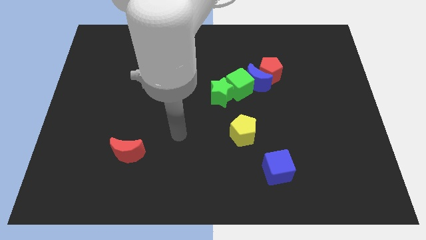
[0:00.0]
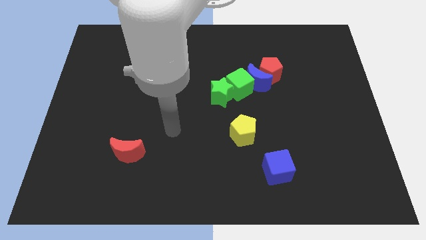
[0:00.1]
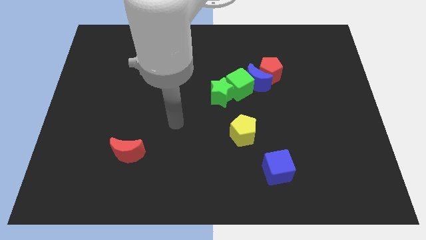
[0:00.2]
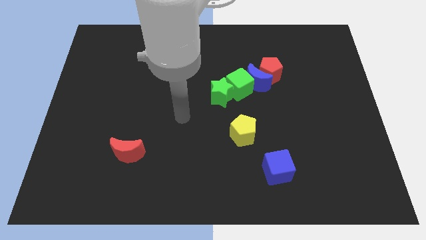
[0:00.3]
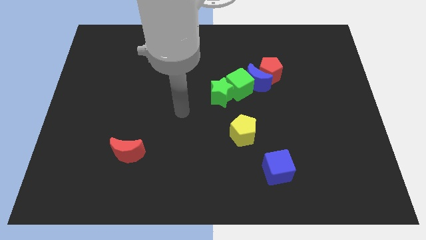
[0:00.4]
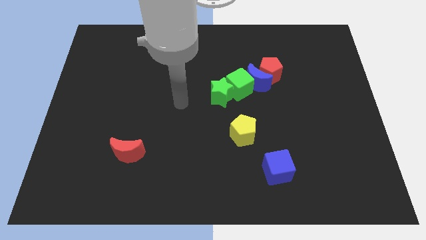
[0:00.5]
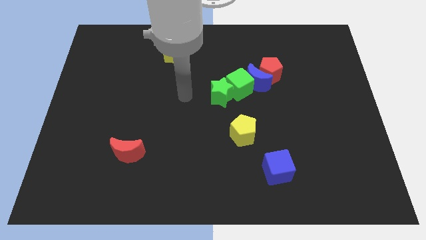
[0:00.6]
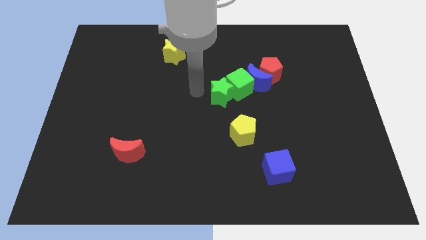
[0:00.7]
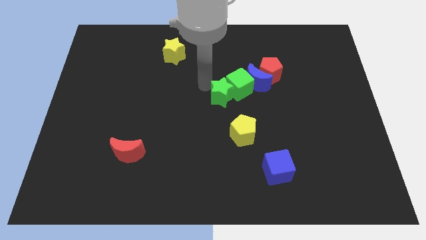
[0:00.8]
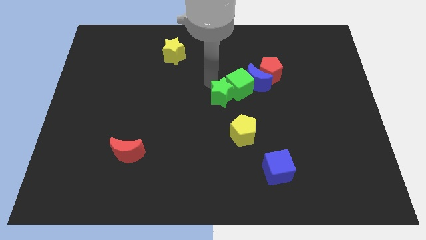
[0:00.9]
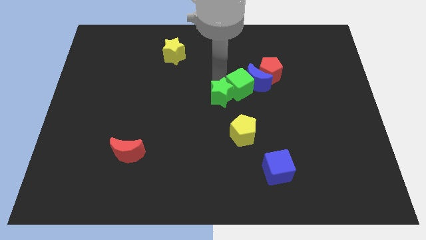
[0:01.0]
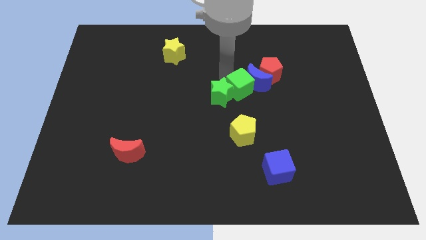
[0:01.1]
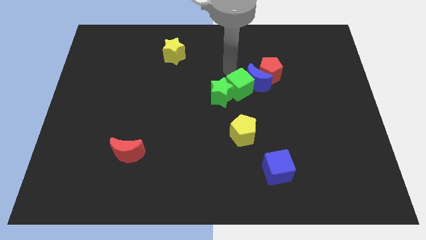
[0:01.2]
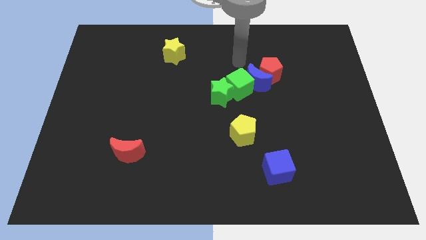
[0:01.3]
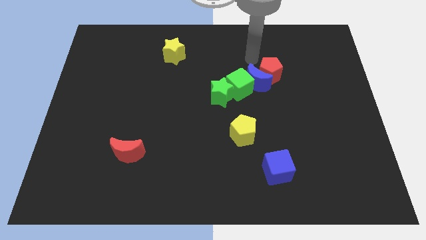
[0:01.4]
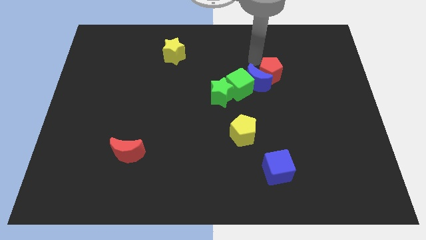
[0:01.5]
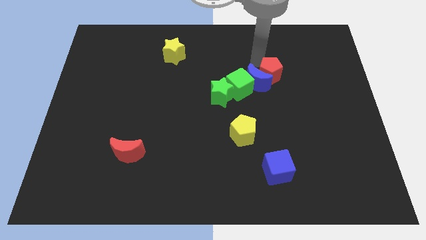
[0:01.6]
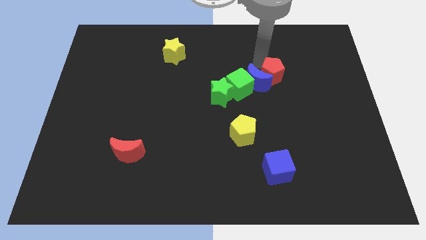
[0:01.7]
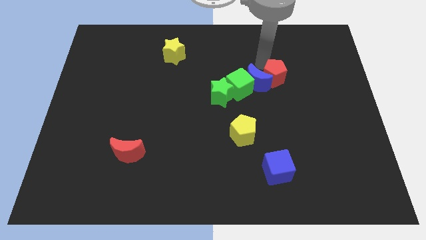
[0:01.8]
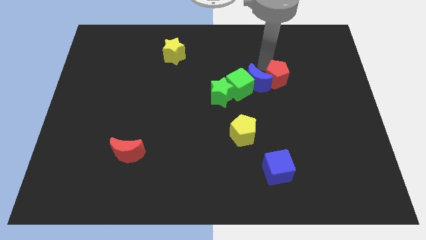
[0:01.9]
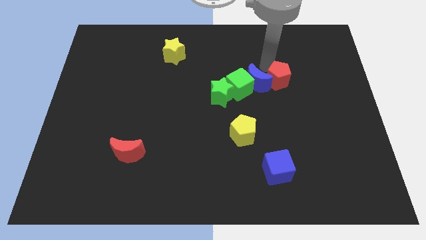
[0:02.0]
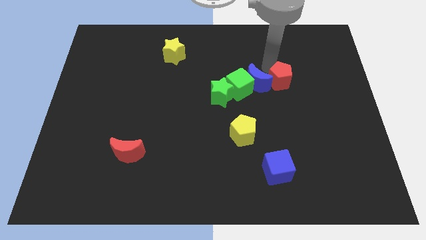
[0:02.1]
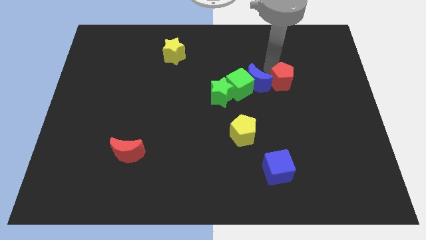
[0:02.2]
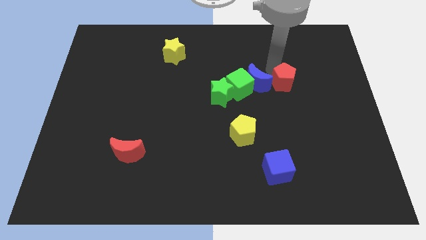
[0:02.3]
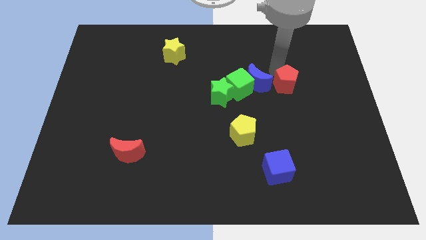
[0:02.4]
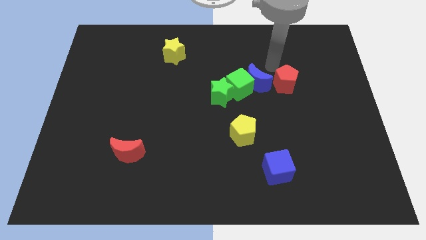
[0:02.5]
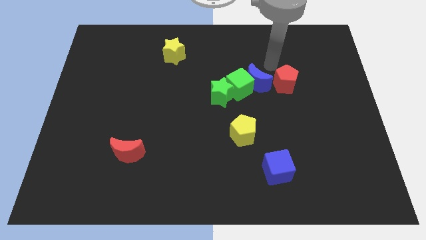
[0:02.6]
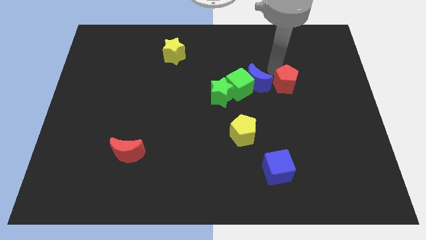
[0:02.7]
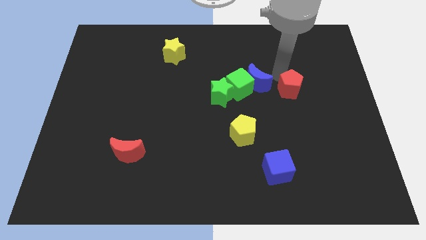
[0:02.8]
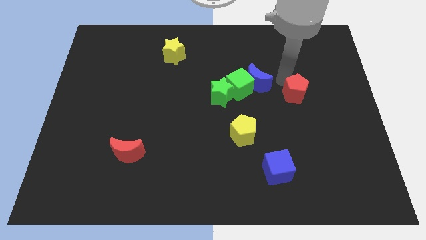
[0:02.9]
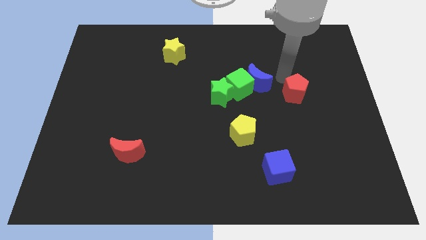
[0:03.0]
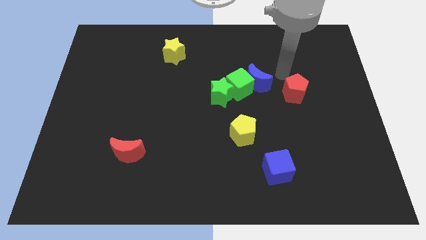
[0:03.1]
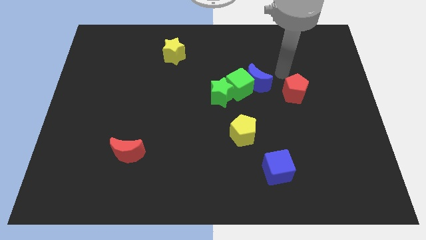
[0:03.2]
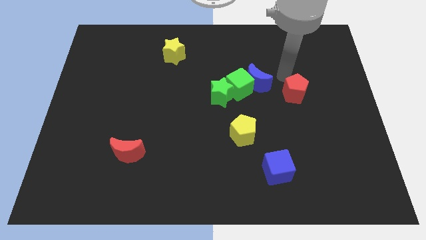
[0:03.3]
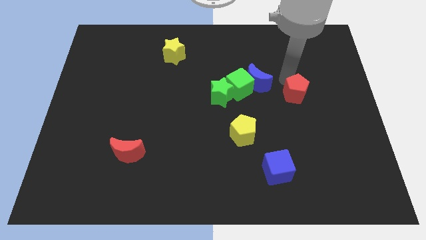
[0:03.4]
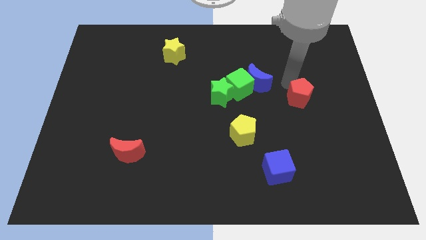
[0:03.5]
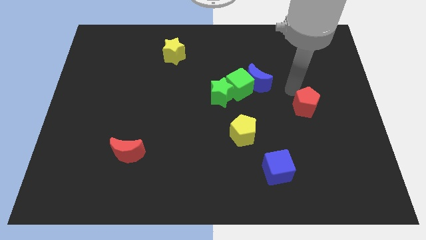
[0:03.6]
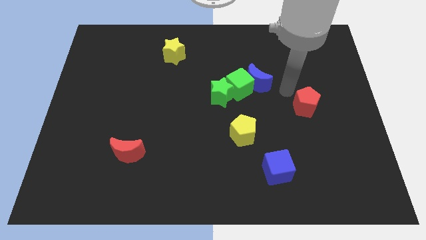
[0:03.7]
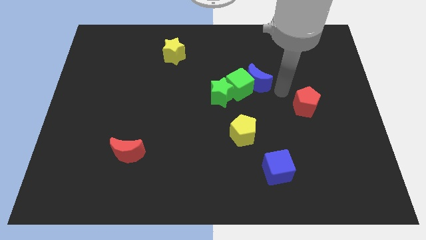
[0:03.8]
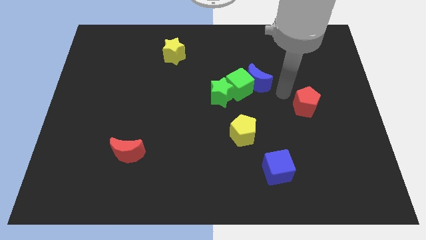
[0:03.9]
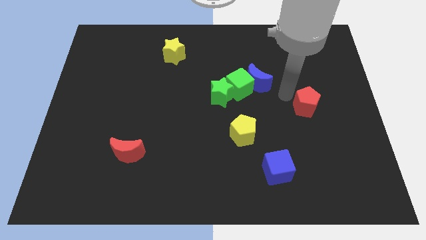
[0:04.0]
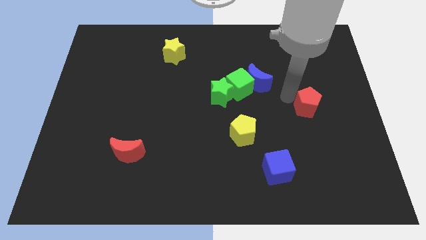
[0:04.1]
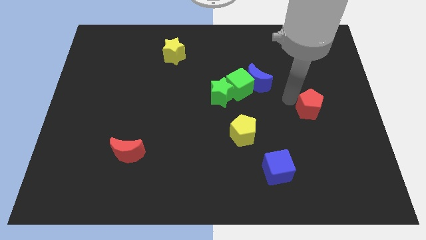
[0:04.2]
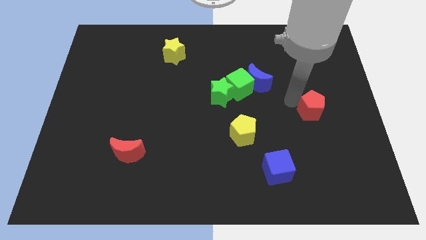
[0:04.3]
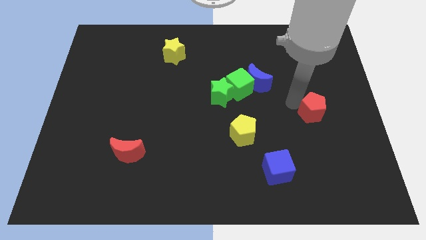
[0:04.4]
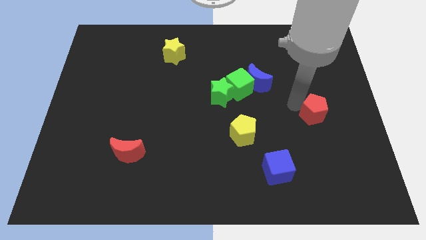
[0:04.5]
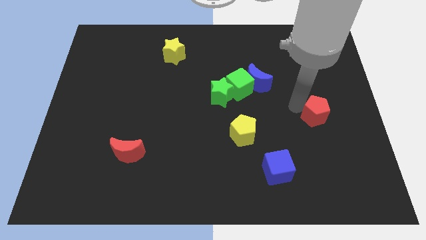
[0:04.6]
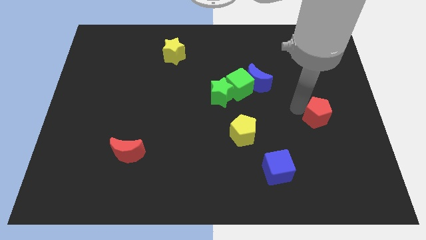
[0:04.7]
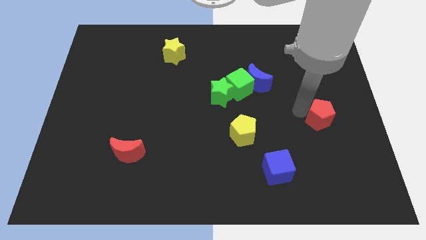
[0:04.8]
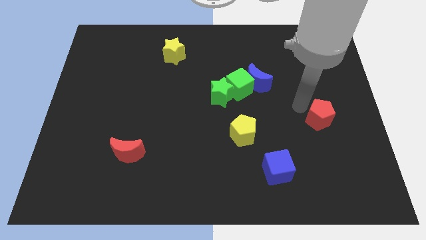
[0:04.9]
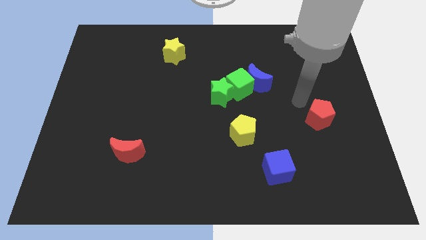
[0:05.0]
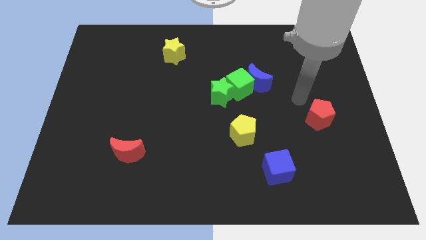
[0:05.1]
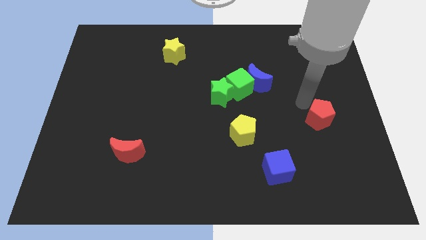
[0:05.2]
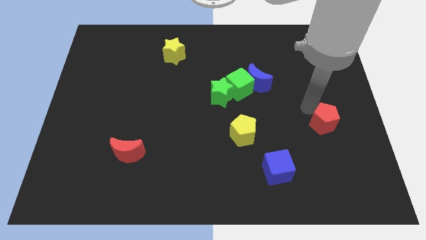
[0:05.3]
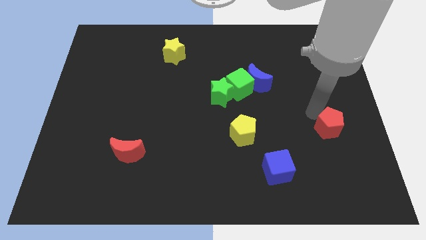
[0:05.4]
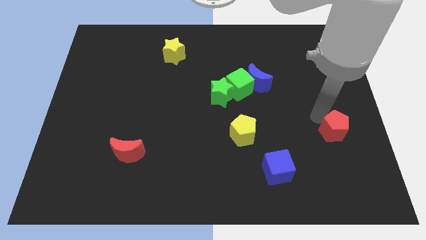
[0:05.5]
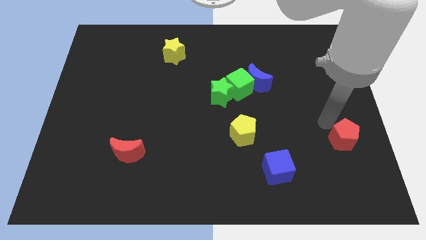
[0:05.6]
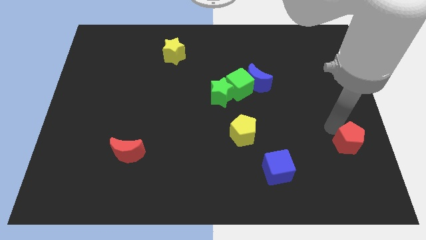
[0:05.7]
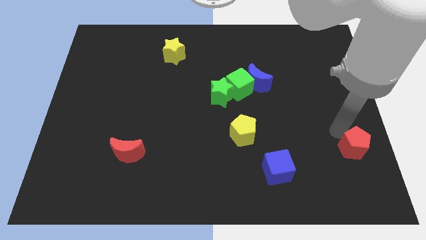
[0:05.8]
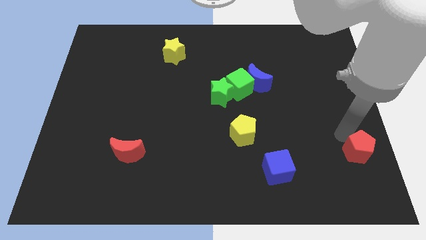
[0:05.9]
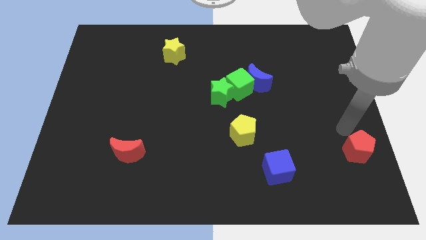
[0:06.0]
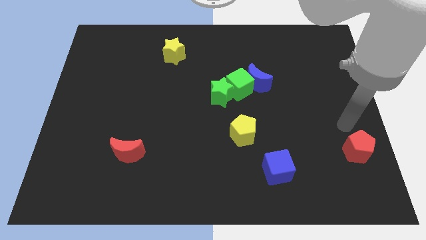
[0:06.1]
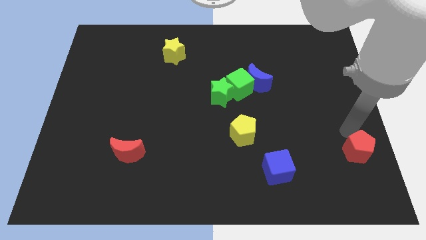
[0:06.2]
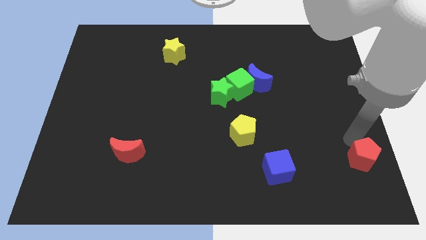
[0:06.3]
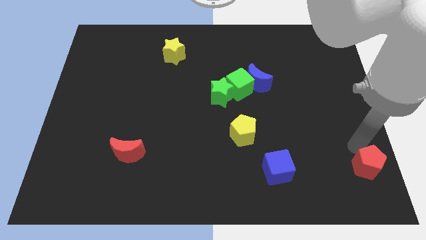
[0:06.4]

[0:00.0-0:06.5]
put the red pentagon to the bottom right corner
